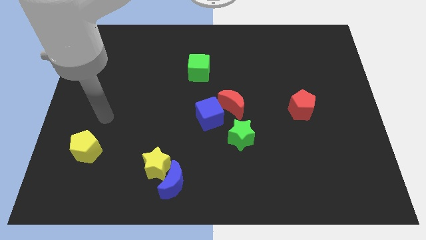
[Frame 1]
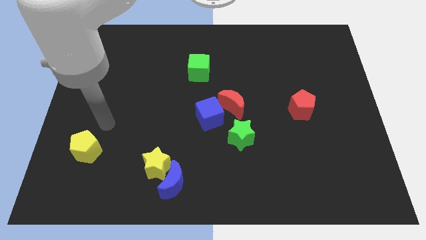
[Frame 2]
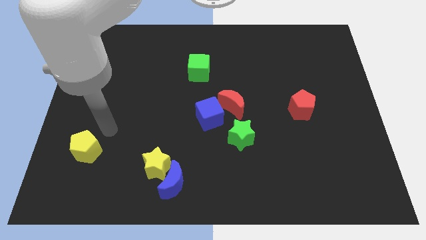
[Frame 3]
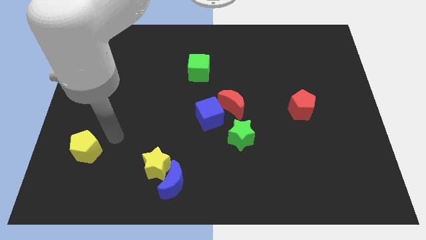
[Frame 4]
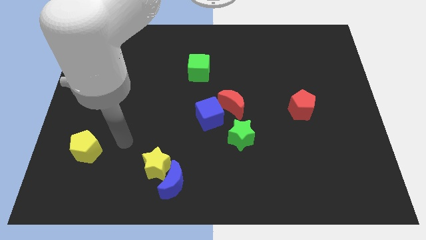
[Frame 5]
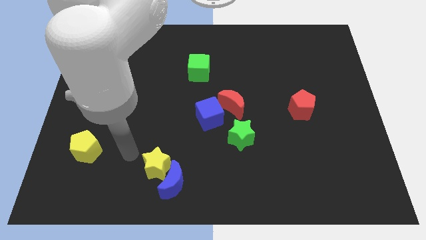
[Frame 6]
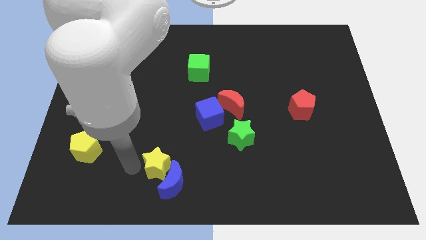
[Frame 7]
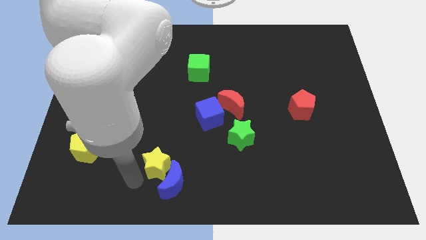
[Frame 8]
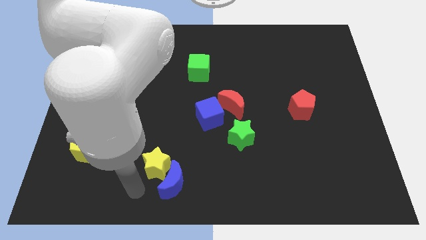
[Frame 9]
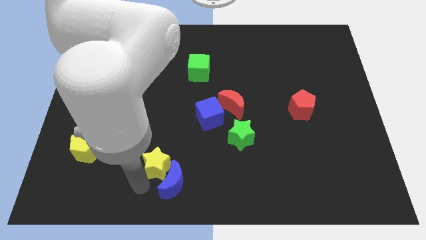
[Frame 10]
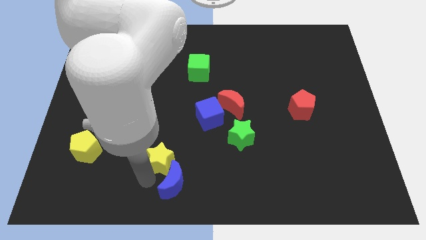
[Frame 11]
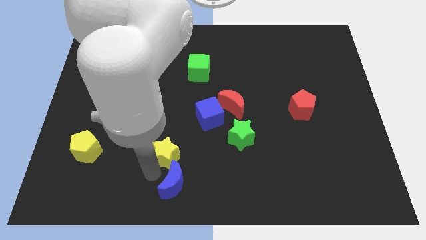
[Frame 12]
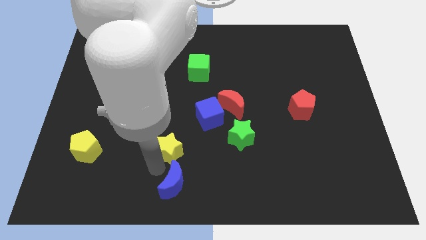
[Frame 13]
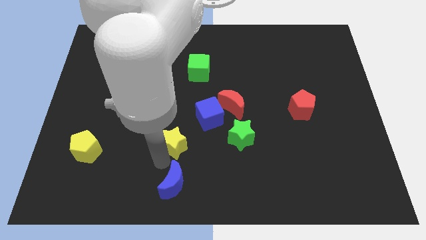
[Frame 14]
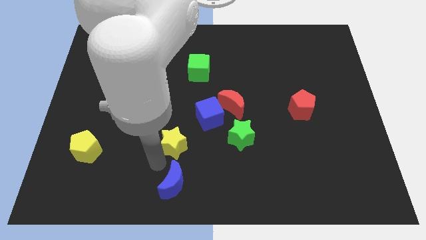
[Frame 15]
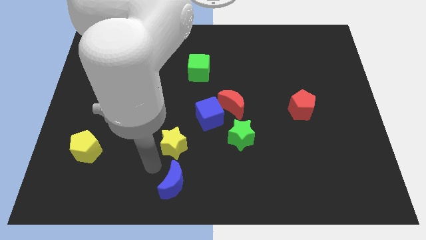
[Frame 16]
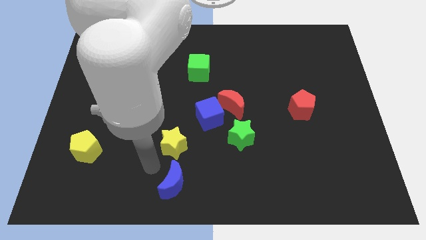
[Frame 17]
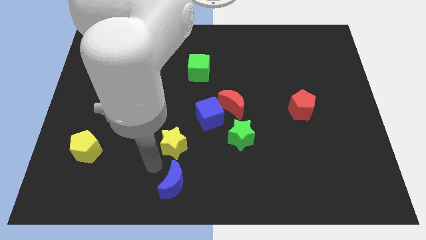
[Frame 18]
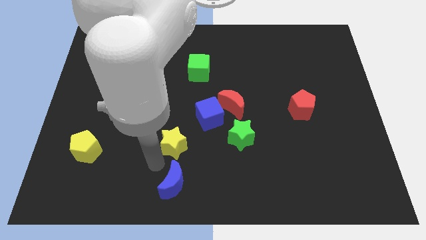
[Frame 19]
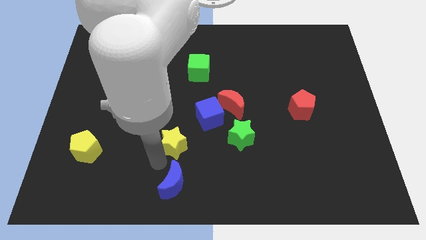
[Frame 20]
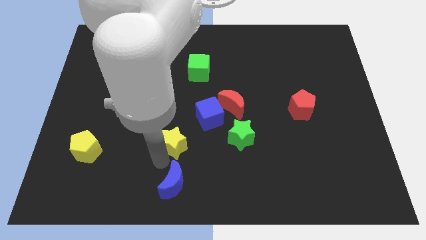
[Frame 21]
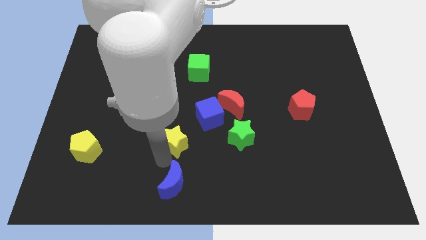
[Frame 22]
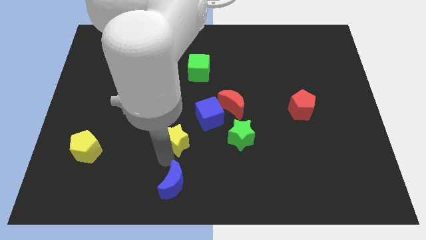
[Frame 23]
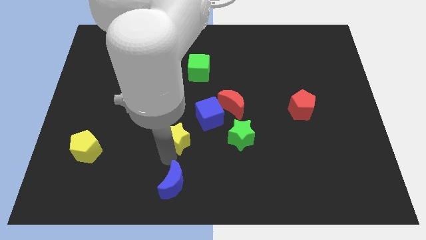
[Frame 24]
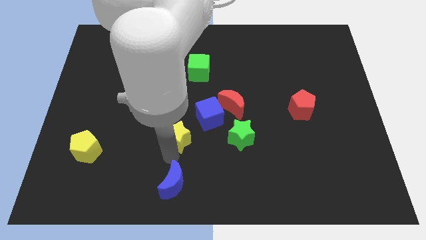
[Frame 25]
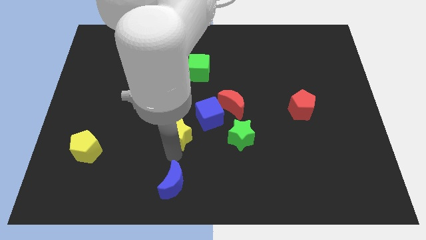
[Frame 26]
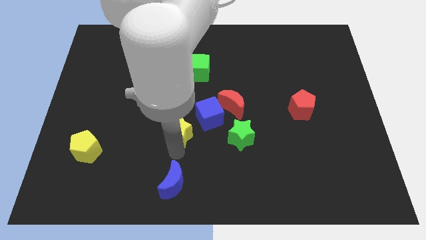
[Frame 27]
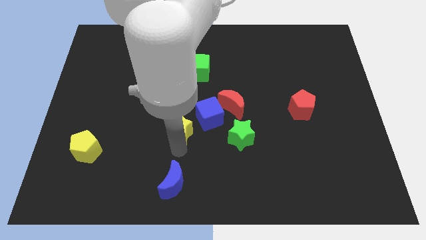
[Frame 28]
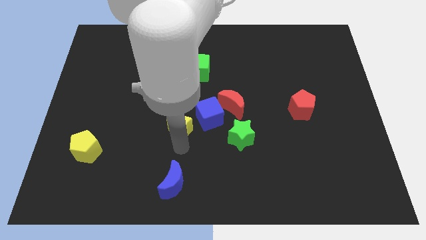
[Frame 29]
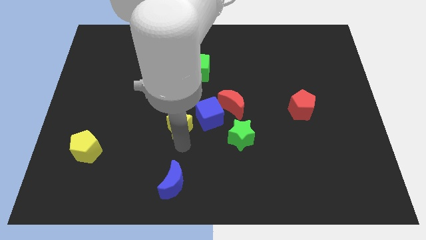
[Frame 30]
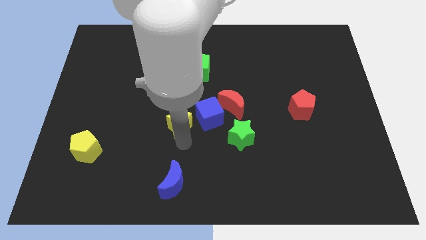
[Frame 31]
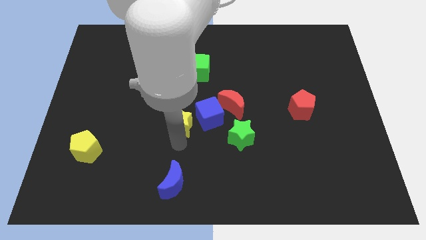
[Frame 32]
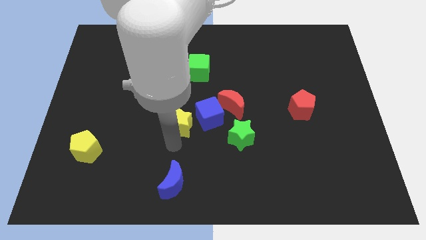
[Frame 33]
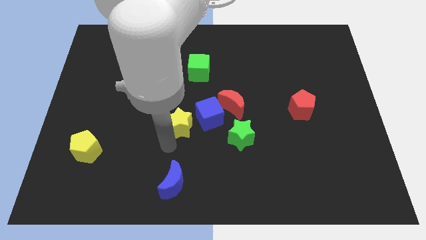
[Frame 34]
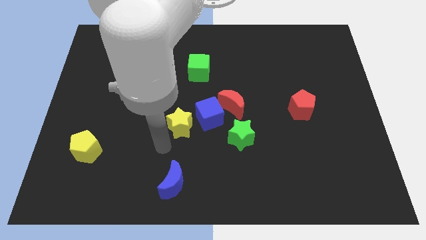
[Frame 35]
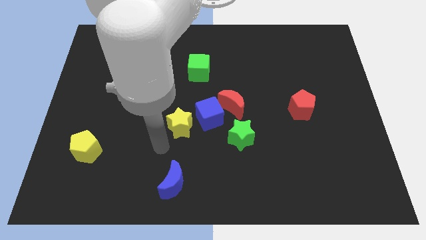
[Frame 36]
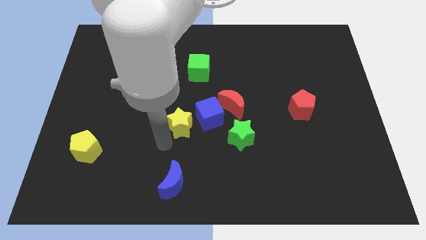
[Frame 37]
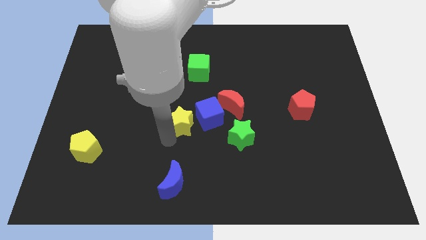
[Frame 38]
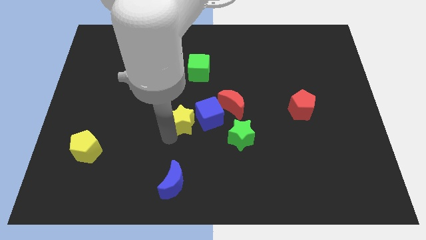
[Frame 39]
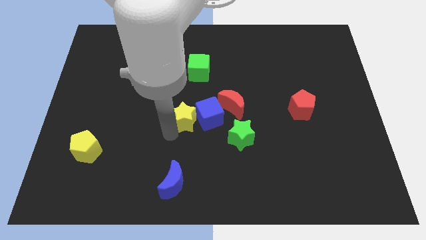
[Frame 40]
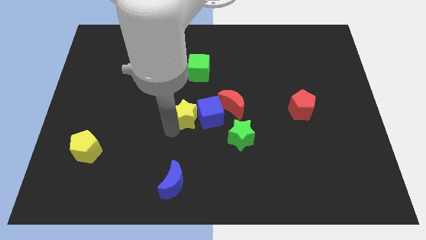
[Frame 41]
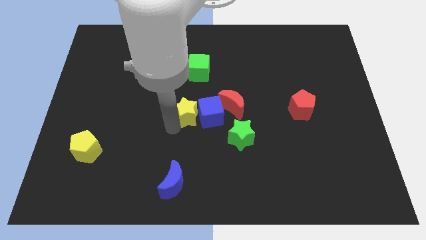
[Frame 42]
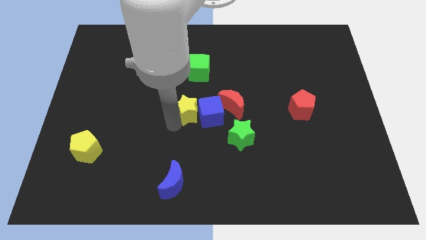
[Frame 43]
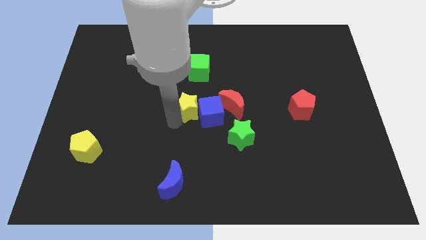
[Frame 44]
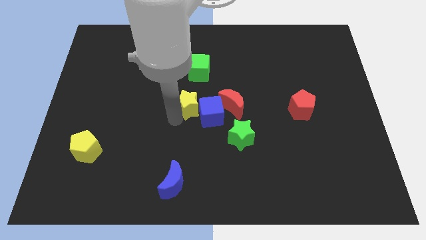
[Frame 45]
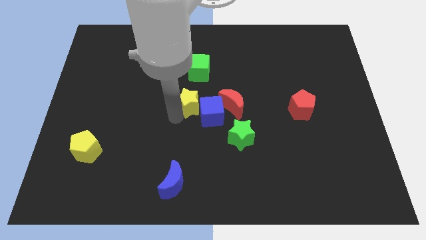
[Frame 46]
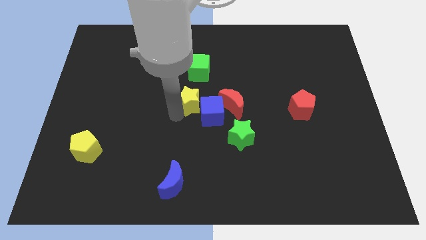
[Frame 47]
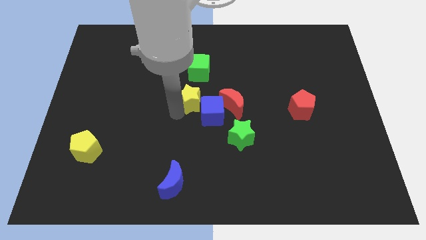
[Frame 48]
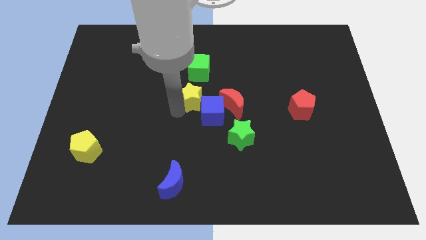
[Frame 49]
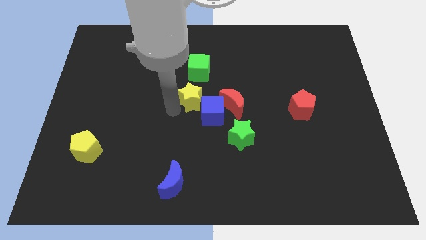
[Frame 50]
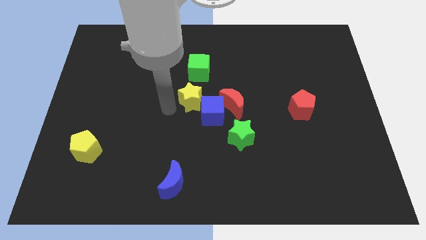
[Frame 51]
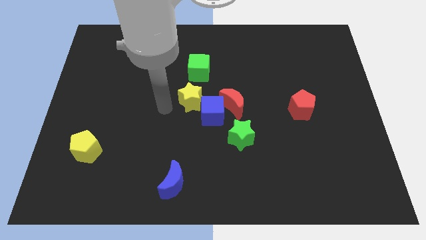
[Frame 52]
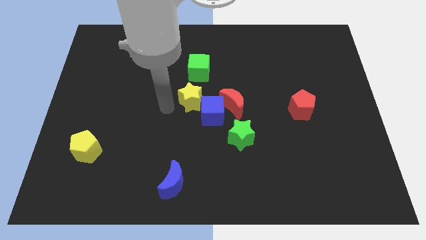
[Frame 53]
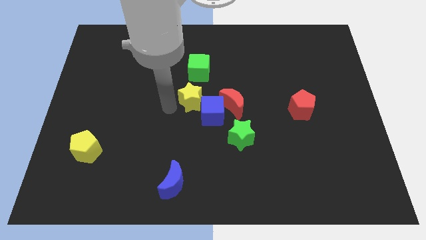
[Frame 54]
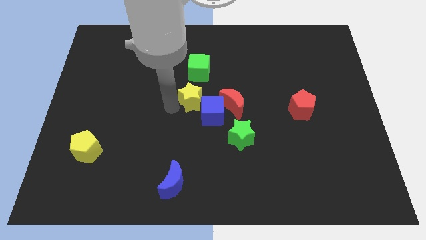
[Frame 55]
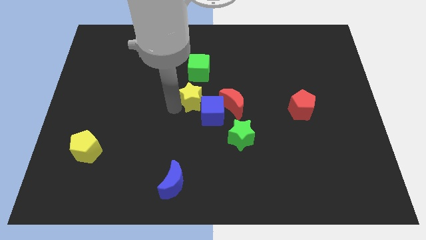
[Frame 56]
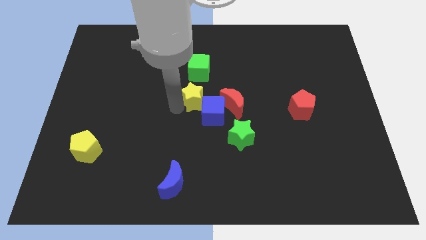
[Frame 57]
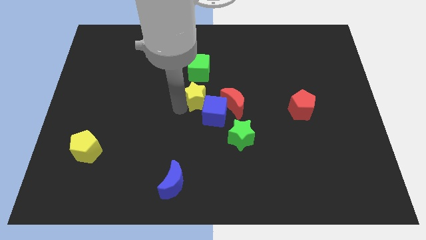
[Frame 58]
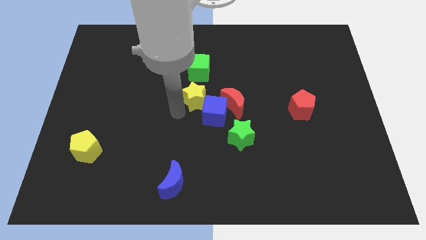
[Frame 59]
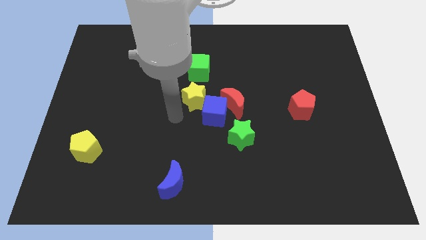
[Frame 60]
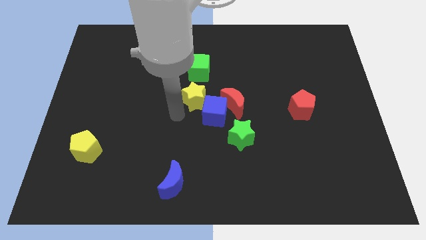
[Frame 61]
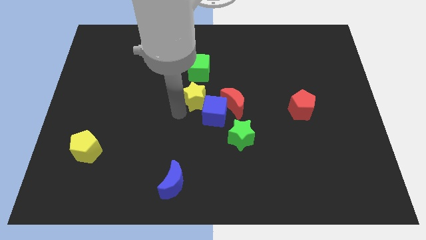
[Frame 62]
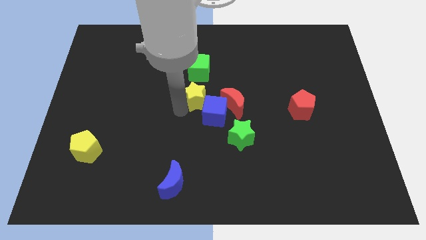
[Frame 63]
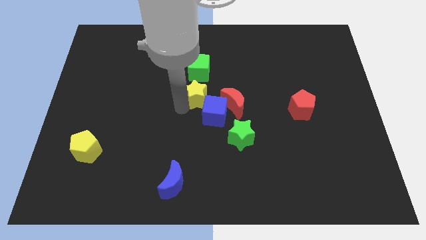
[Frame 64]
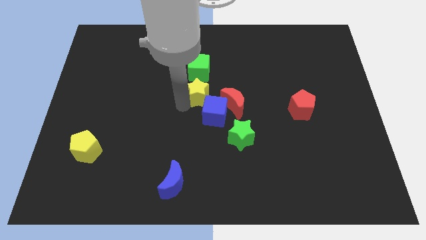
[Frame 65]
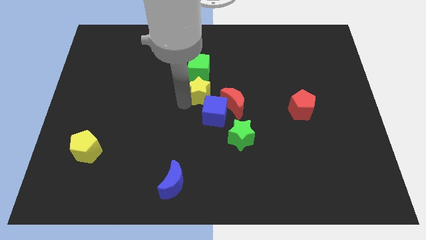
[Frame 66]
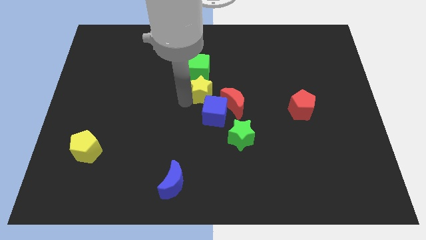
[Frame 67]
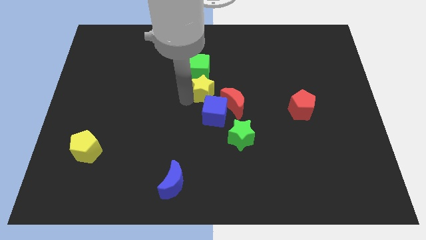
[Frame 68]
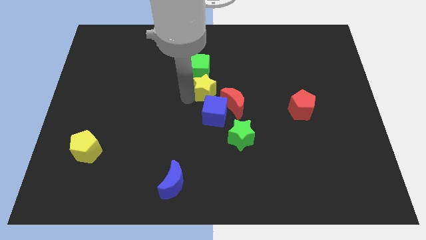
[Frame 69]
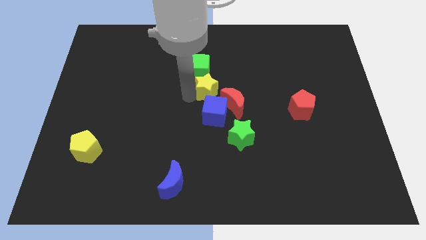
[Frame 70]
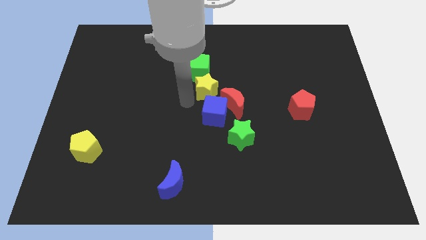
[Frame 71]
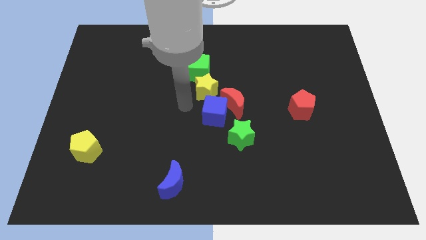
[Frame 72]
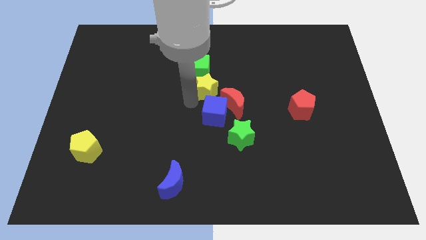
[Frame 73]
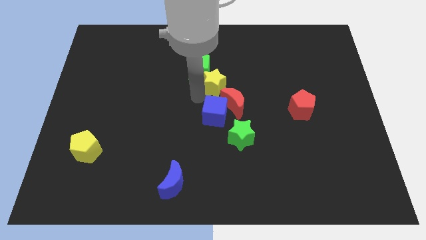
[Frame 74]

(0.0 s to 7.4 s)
push the yellow star above the red moon
